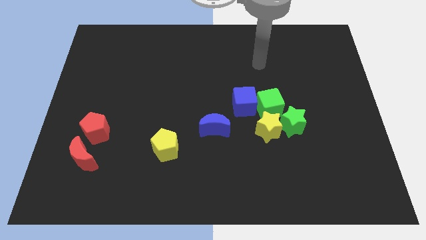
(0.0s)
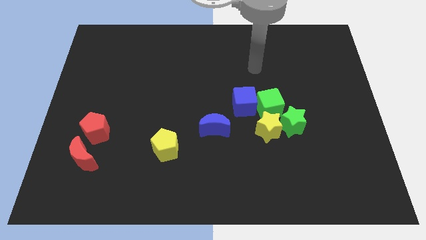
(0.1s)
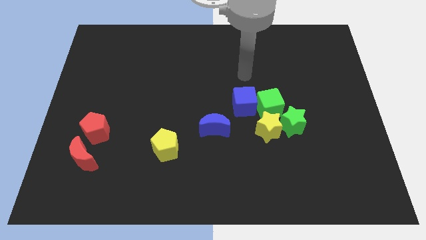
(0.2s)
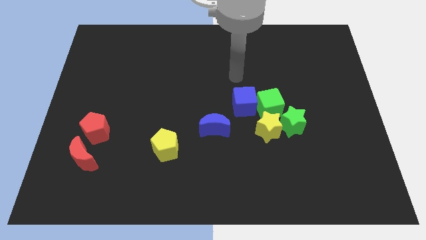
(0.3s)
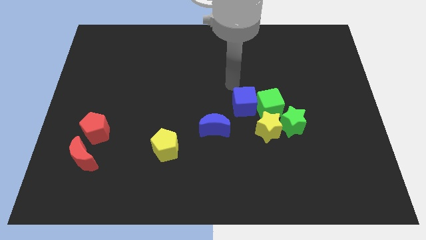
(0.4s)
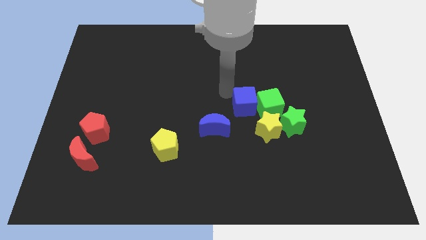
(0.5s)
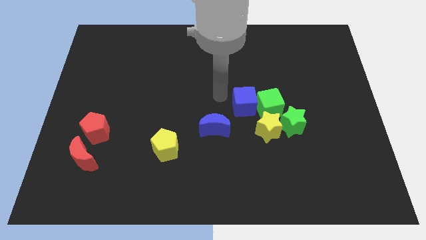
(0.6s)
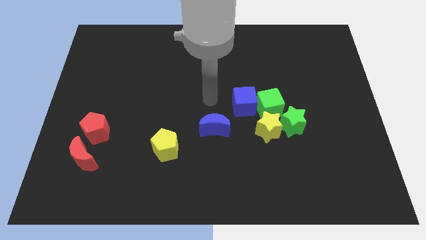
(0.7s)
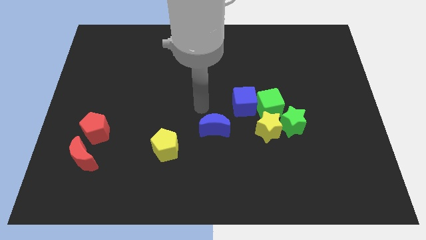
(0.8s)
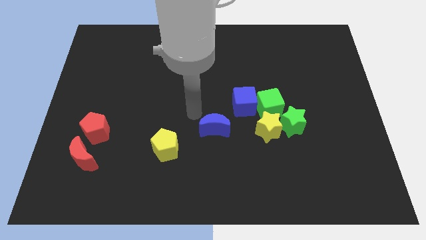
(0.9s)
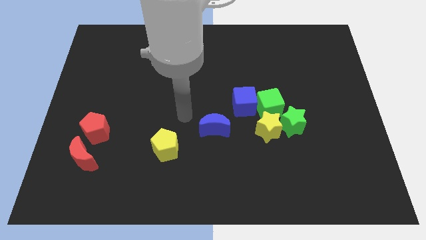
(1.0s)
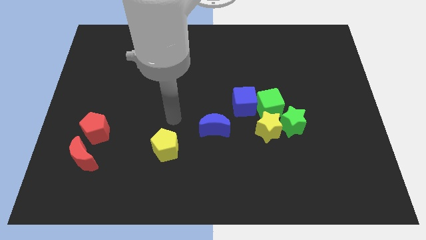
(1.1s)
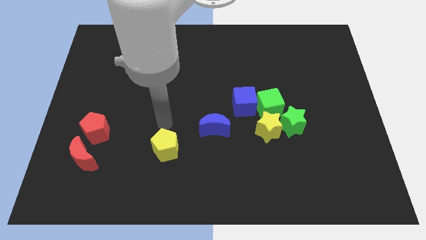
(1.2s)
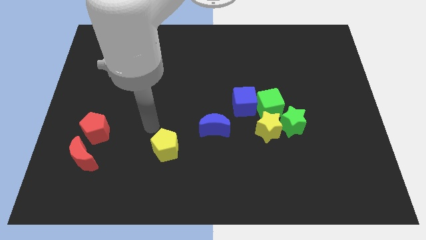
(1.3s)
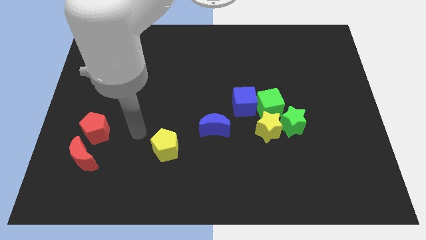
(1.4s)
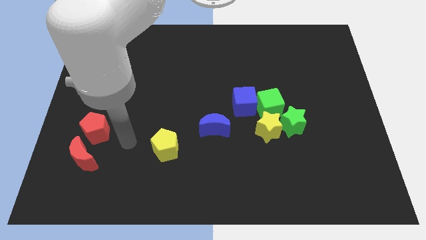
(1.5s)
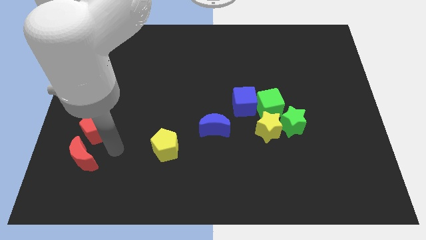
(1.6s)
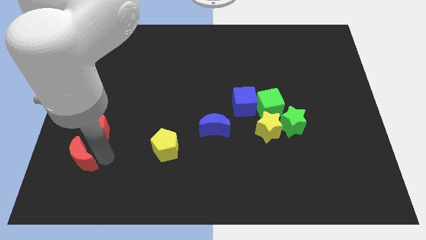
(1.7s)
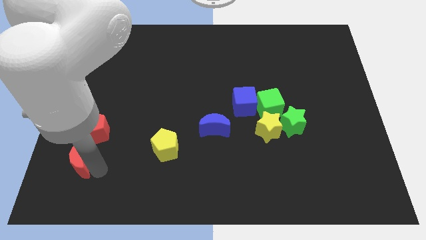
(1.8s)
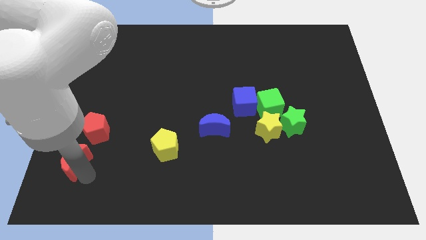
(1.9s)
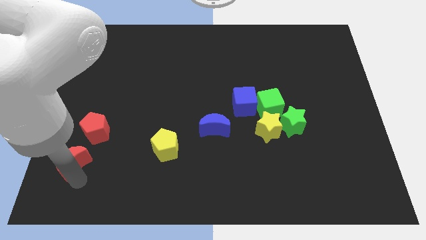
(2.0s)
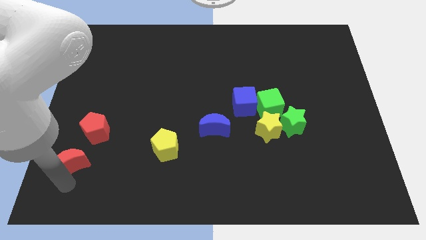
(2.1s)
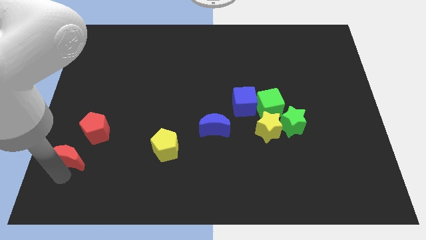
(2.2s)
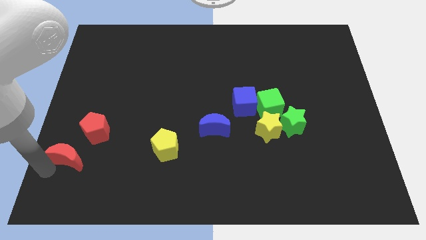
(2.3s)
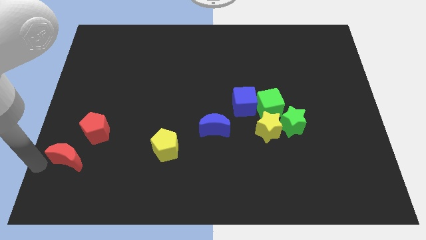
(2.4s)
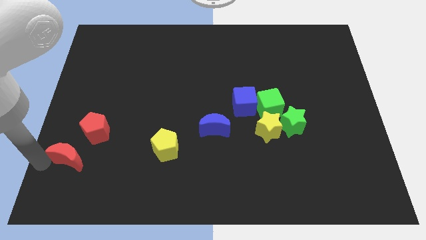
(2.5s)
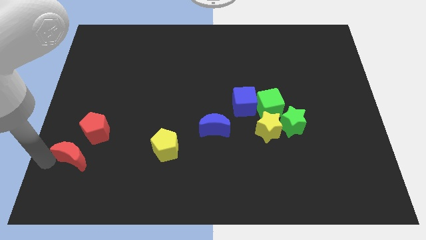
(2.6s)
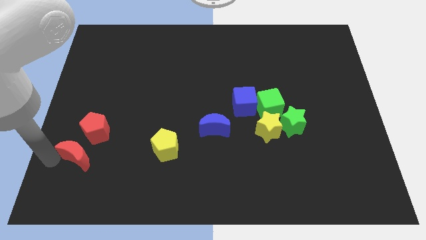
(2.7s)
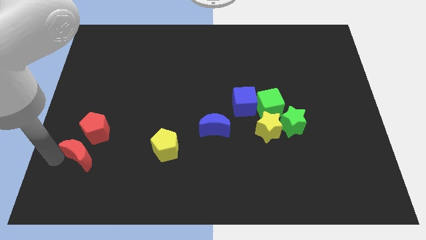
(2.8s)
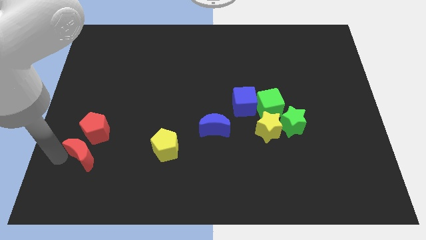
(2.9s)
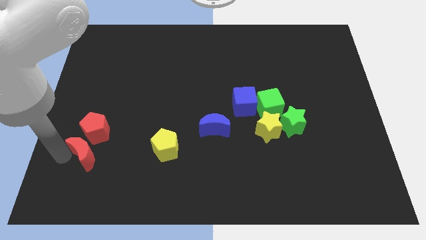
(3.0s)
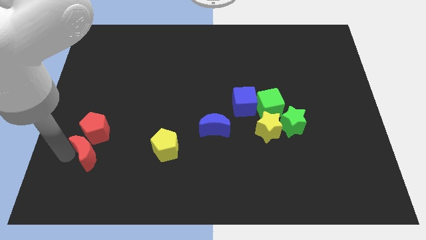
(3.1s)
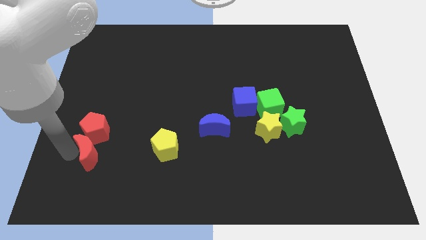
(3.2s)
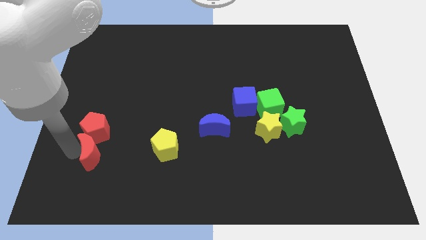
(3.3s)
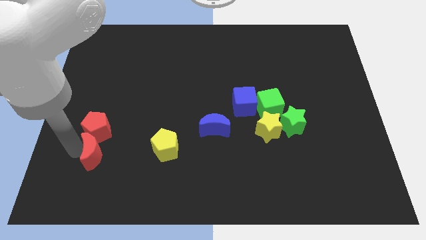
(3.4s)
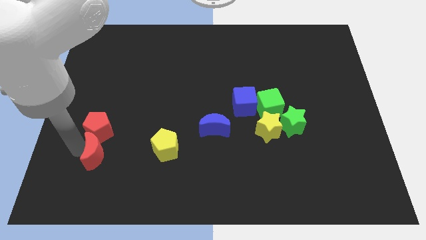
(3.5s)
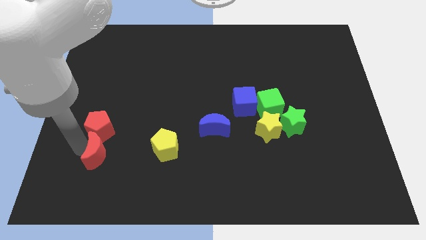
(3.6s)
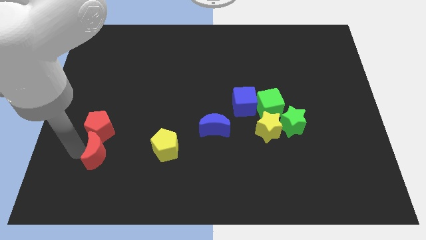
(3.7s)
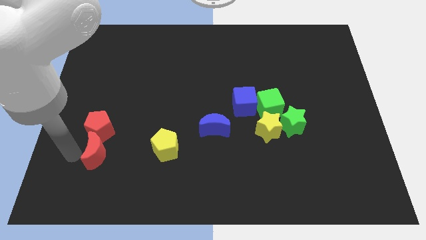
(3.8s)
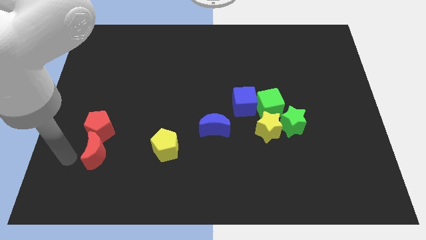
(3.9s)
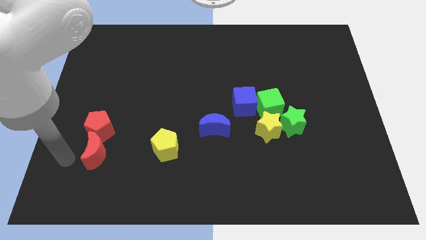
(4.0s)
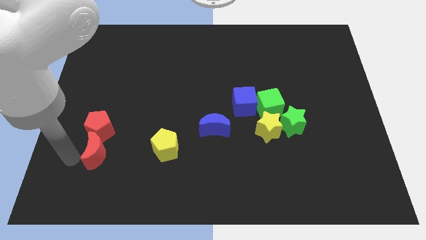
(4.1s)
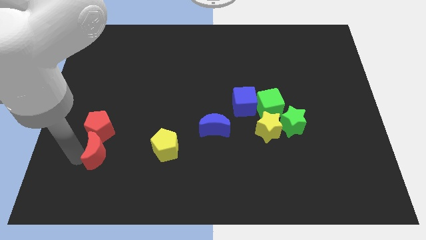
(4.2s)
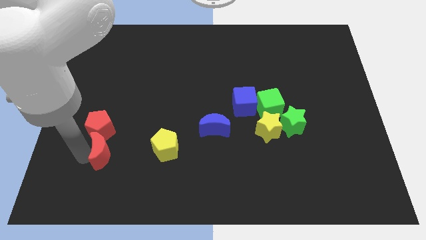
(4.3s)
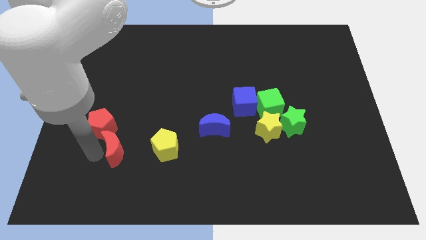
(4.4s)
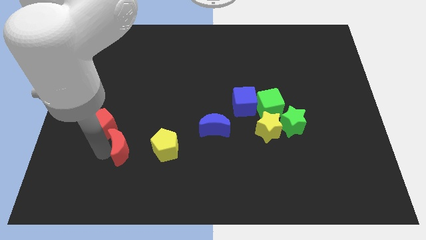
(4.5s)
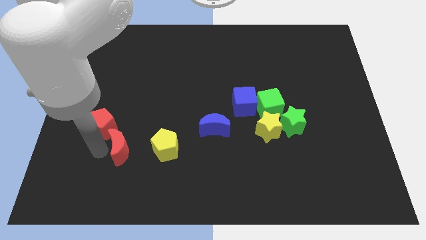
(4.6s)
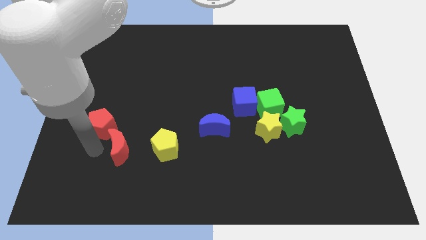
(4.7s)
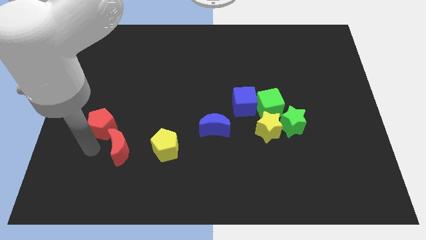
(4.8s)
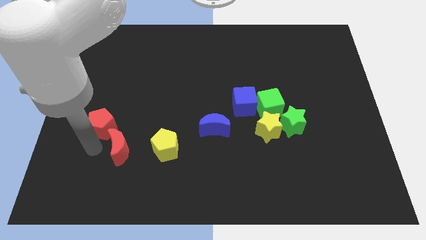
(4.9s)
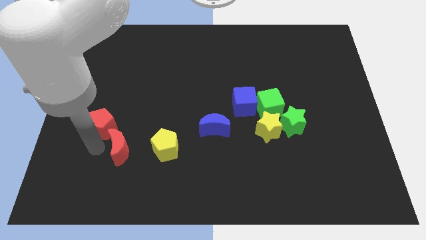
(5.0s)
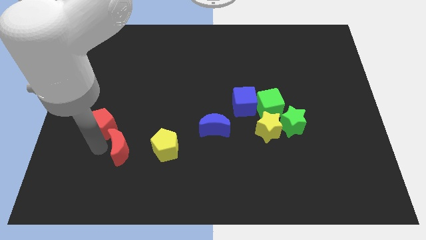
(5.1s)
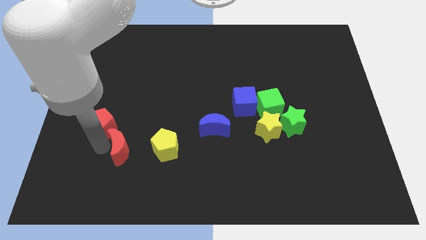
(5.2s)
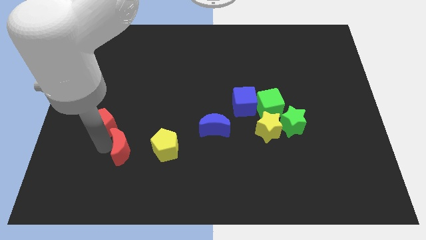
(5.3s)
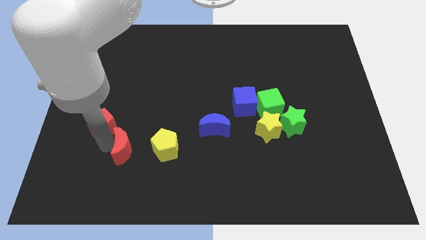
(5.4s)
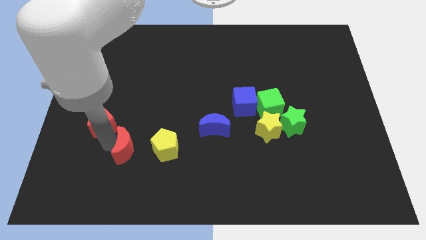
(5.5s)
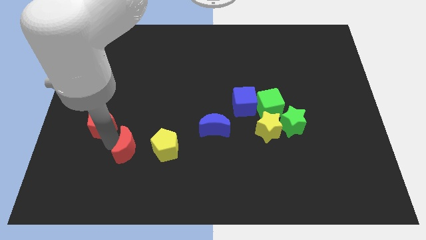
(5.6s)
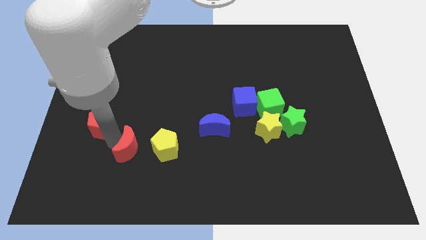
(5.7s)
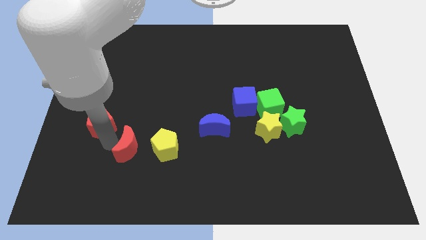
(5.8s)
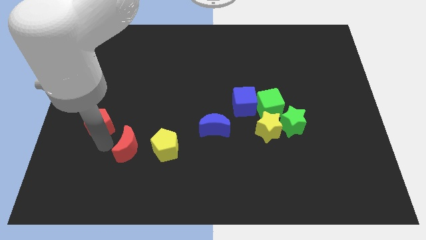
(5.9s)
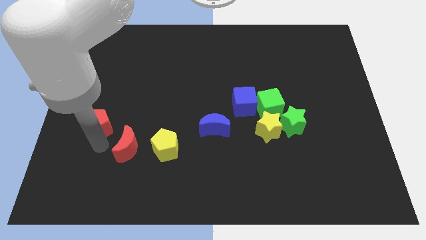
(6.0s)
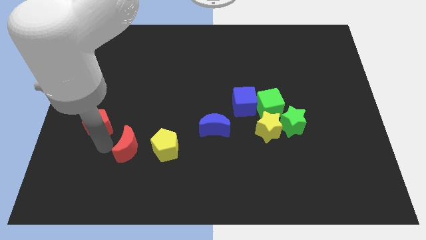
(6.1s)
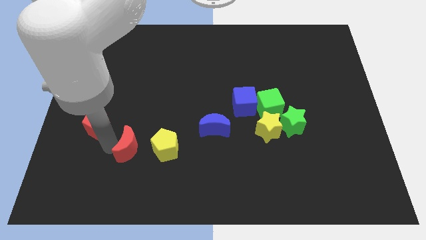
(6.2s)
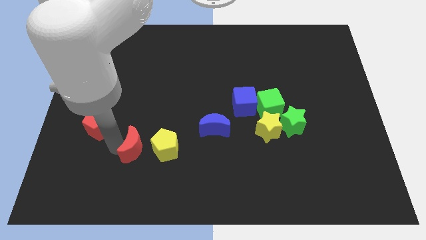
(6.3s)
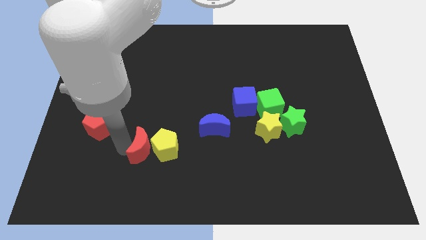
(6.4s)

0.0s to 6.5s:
push the red moon to the yellow pentagon
